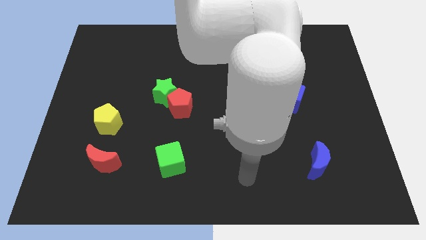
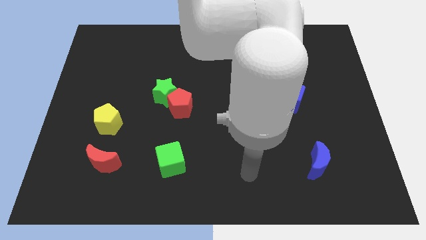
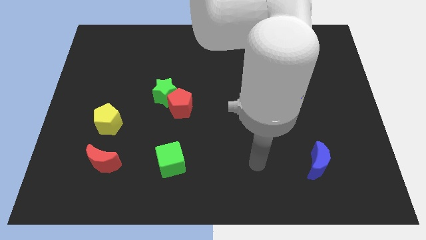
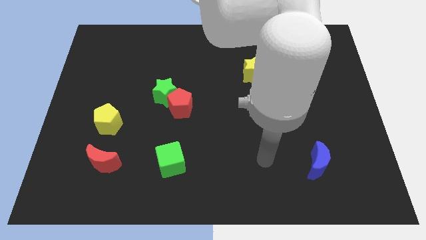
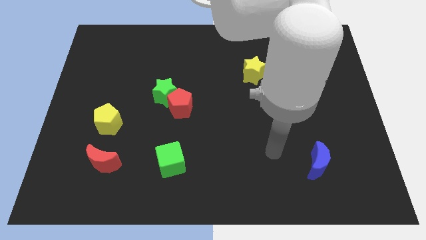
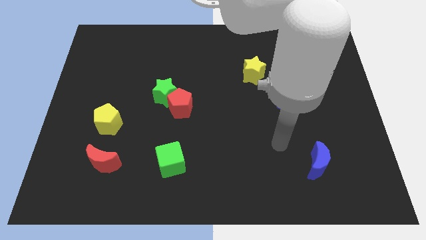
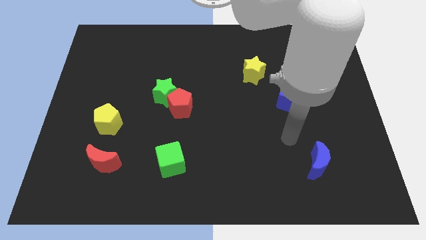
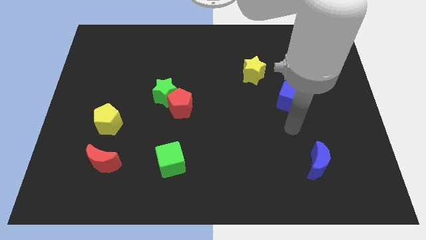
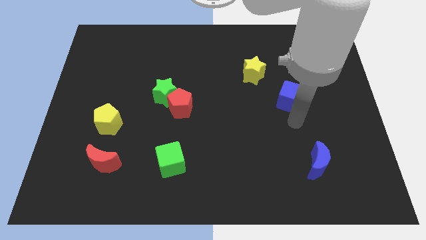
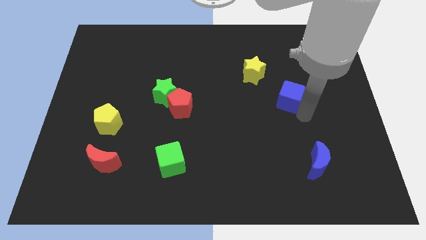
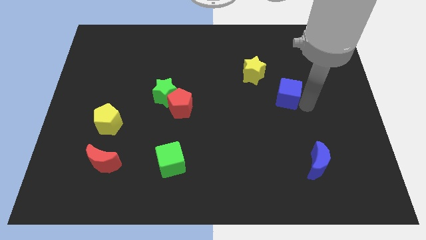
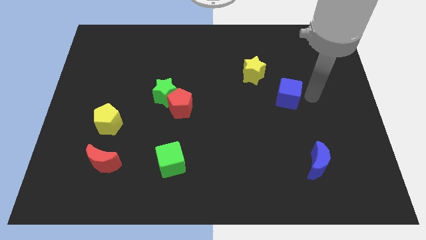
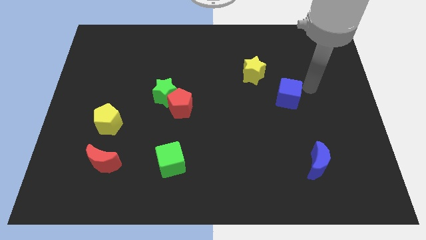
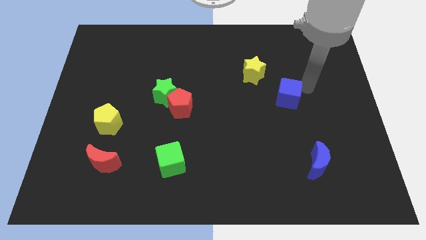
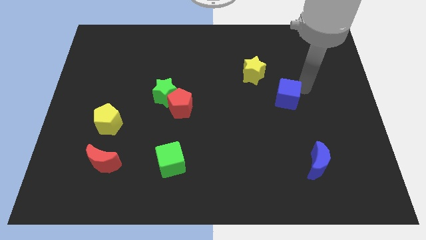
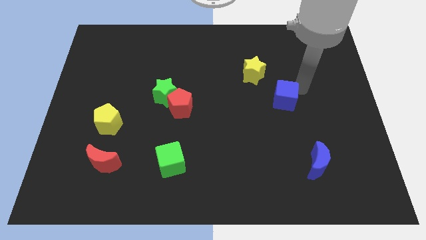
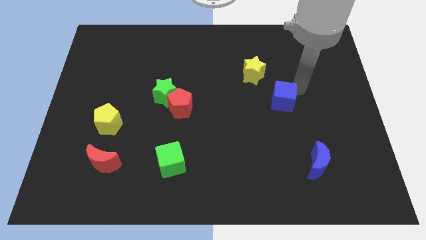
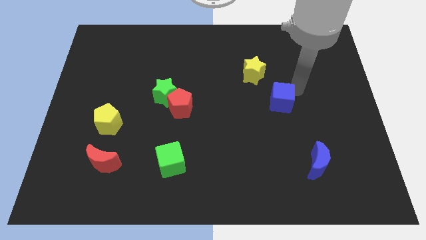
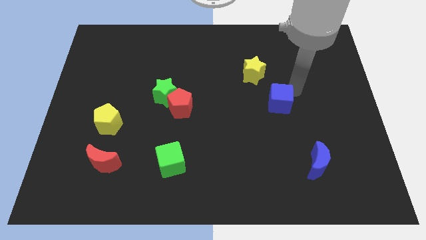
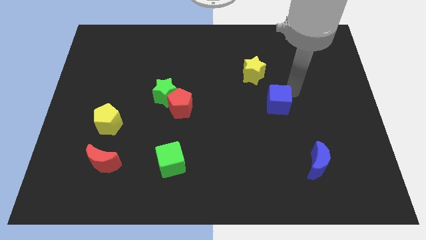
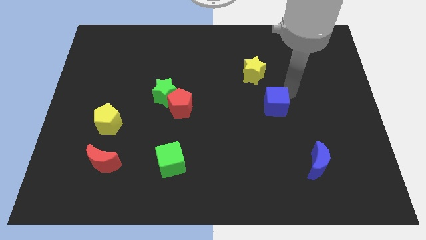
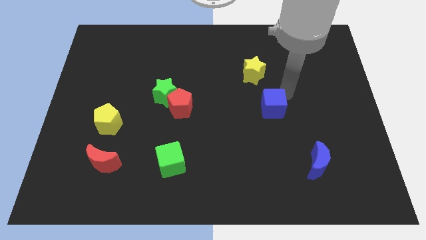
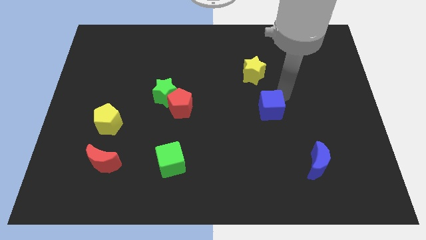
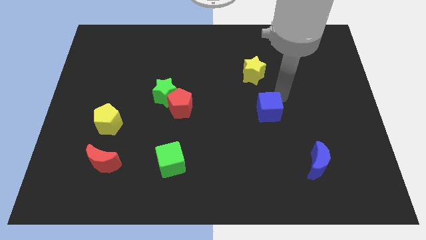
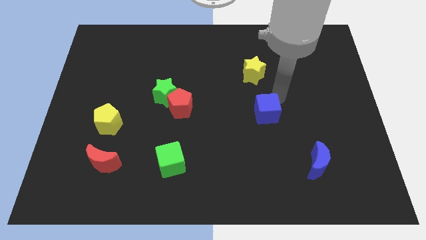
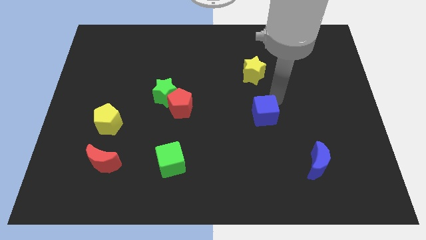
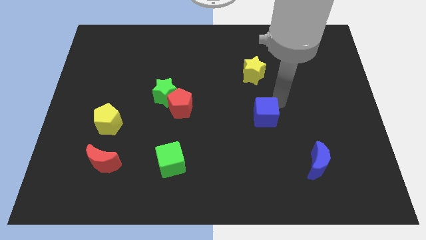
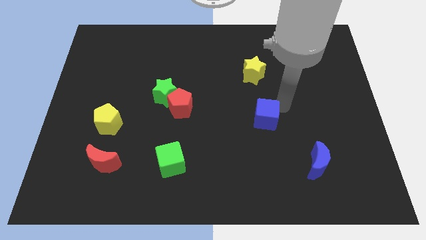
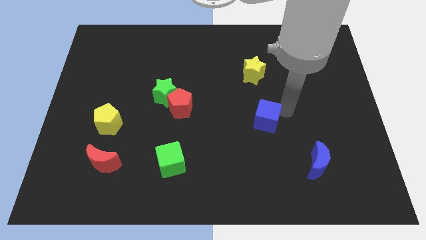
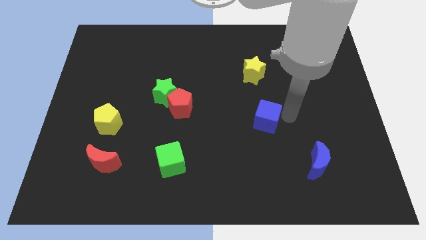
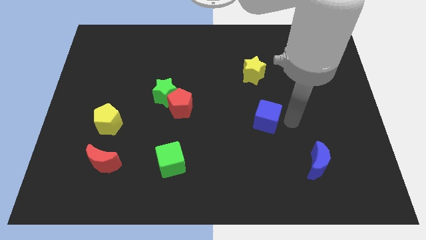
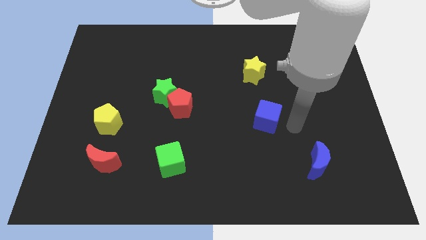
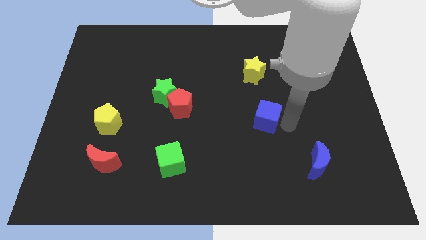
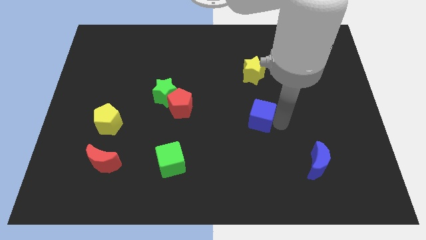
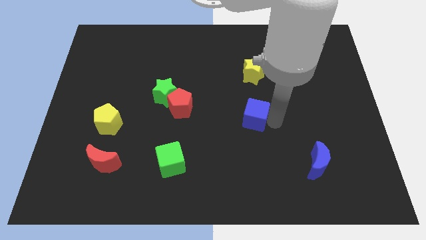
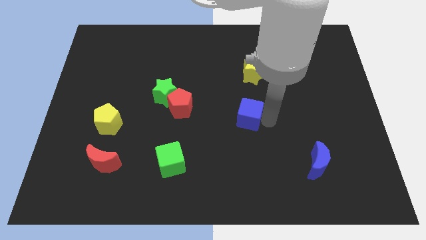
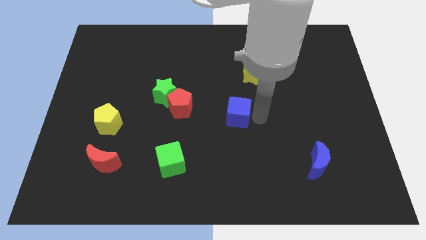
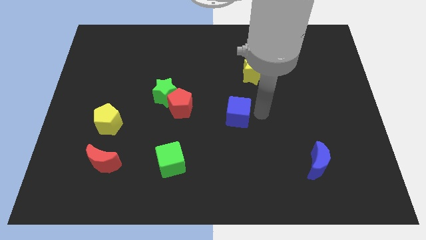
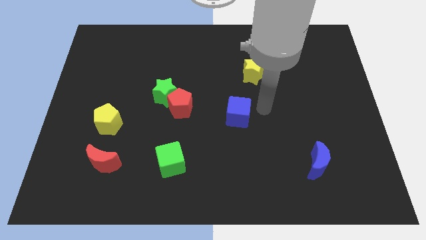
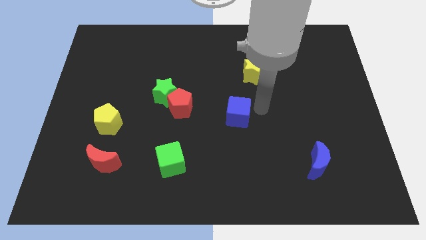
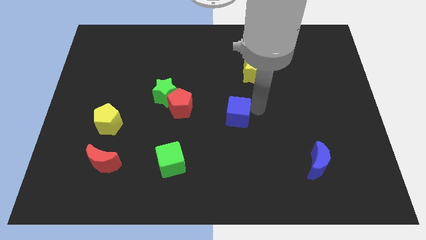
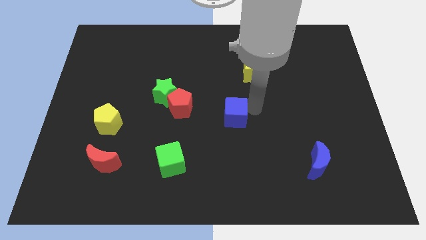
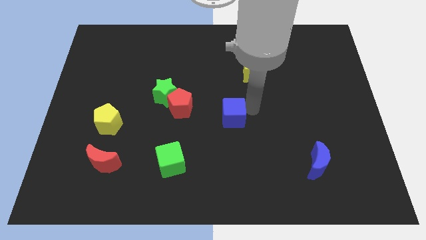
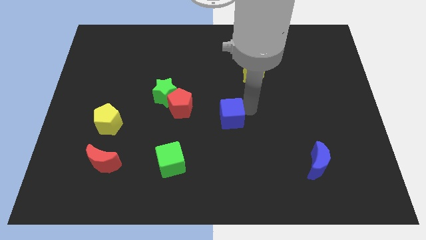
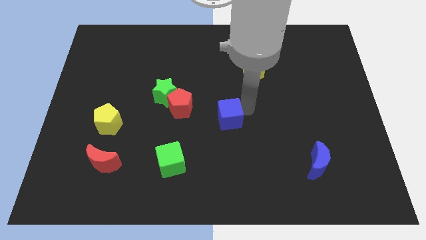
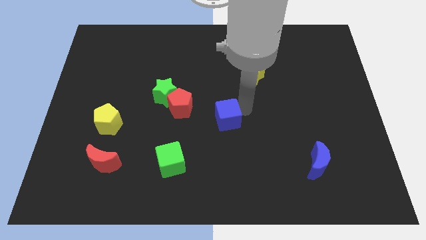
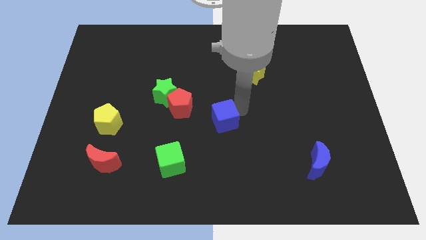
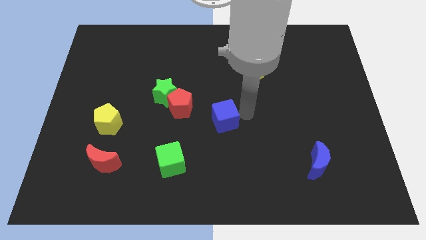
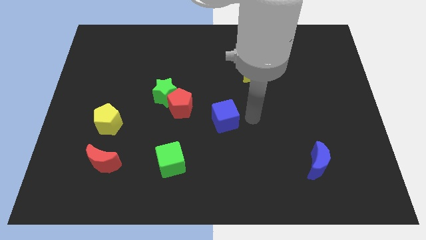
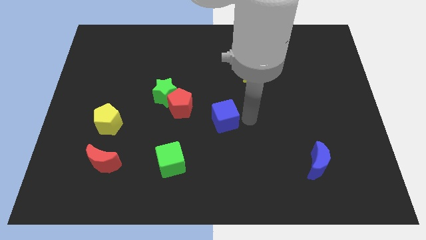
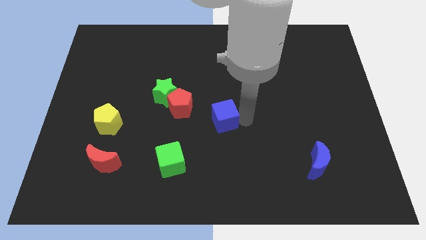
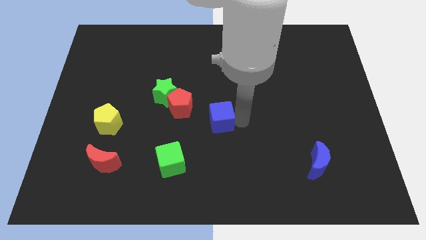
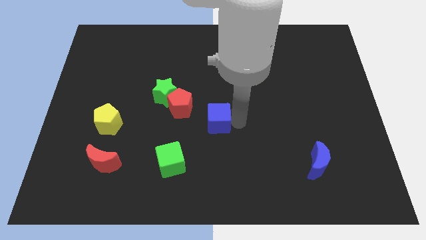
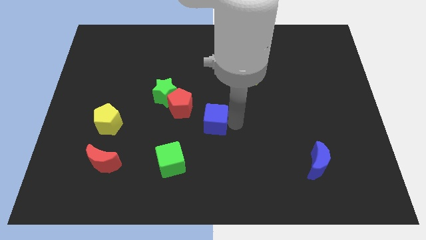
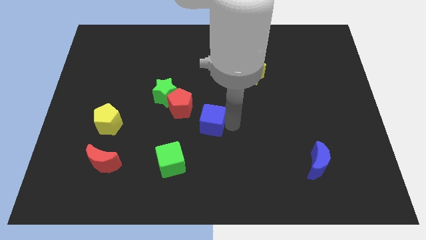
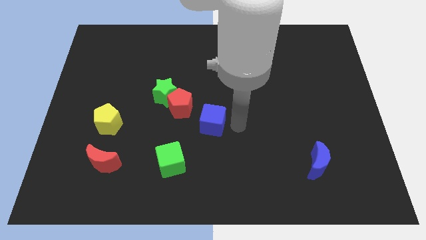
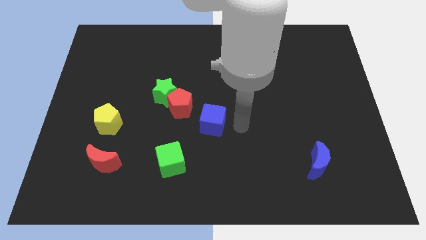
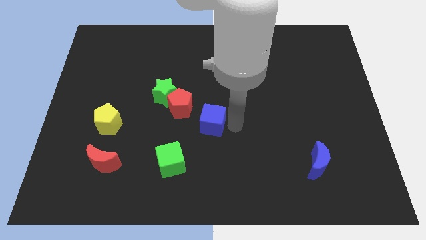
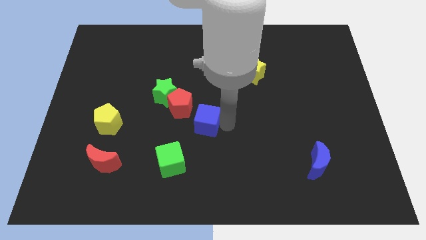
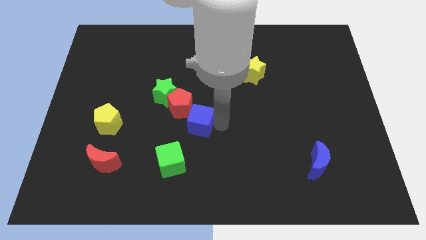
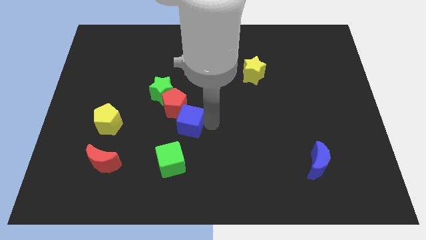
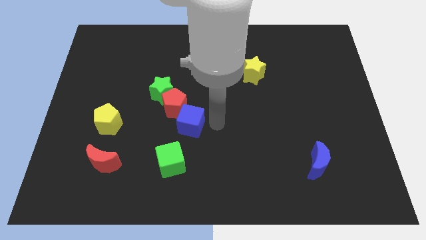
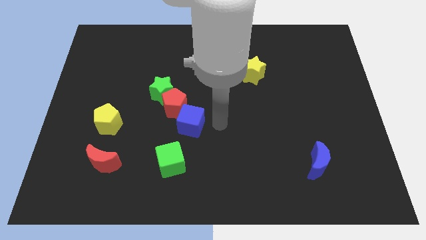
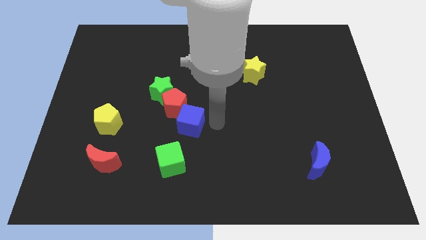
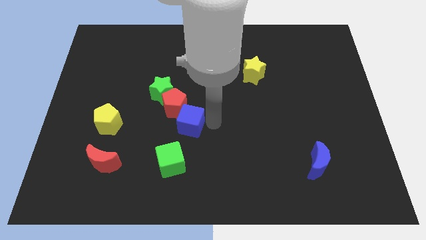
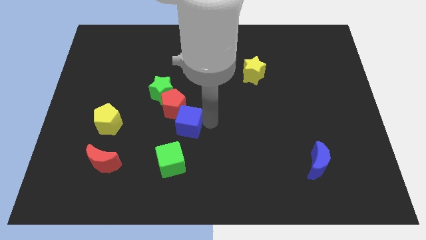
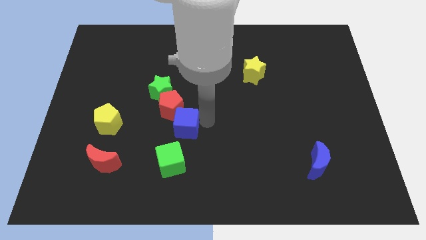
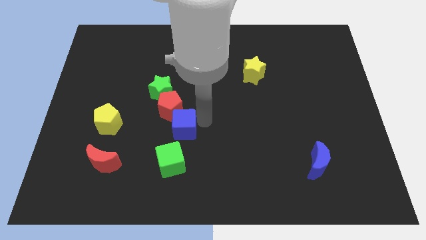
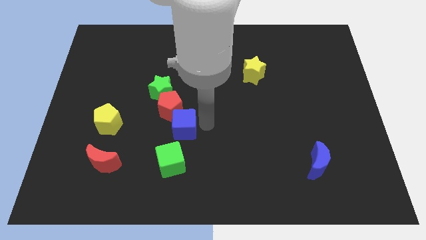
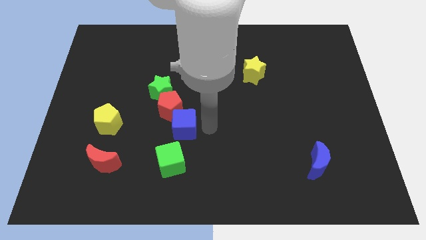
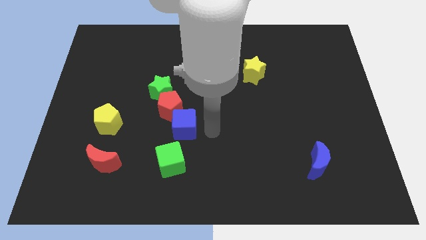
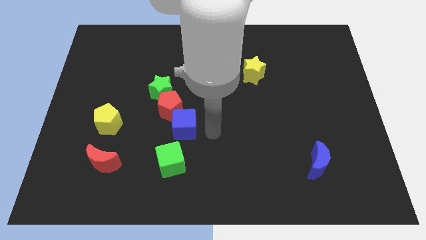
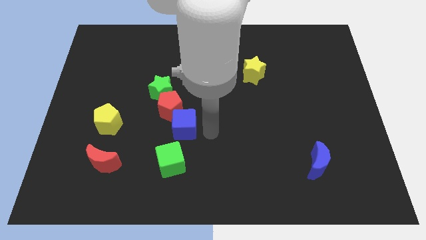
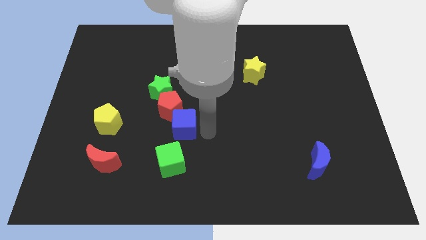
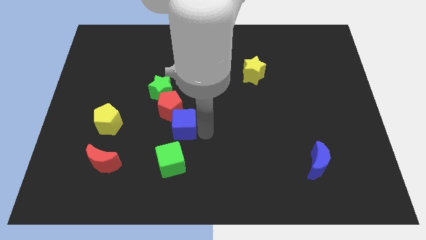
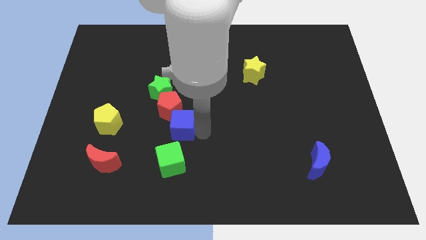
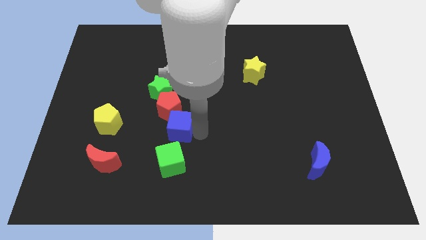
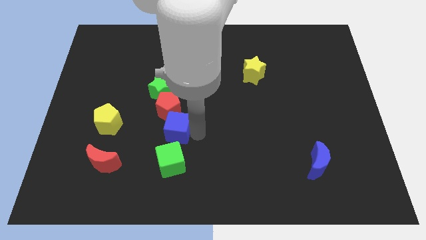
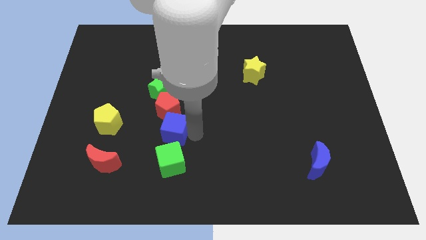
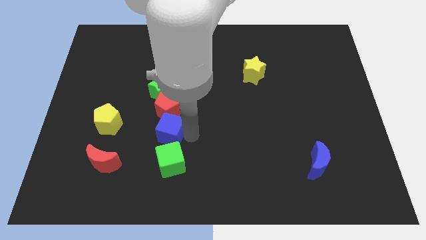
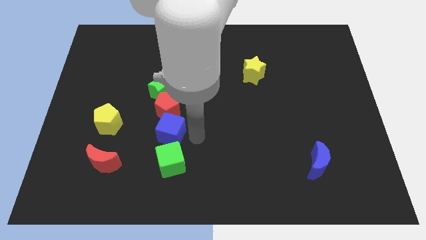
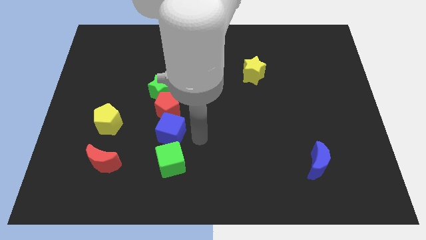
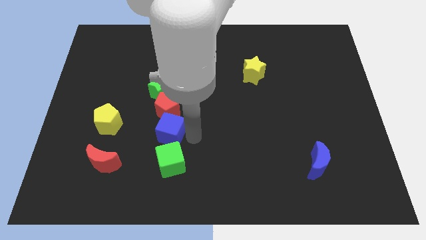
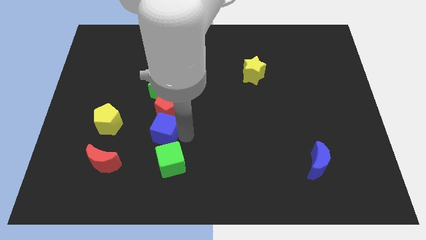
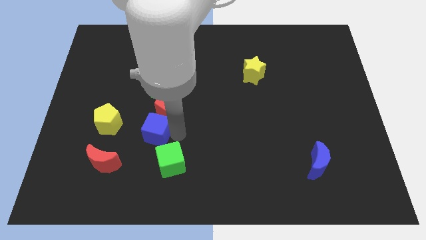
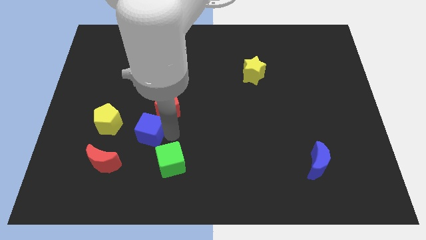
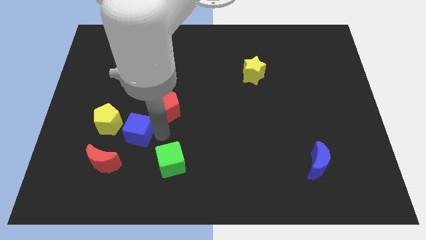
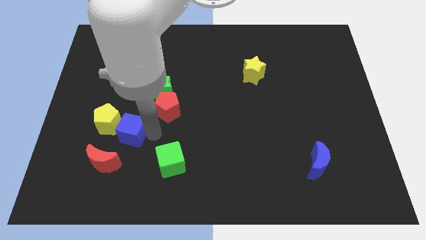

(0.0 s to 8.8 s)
push the blue cube close to the yellow pentagon
